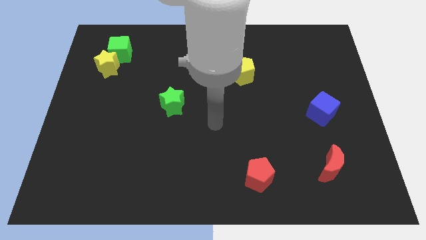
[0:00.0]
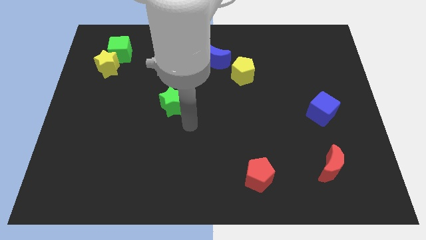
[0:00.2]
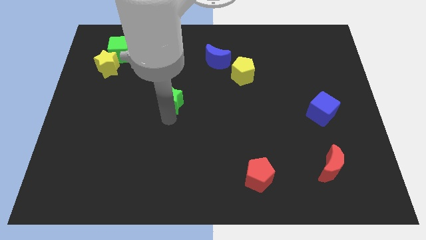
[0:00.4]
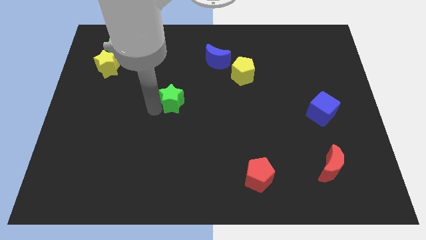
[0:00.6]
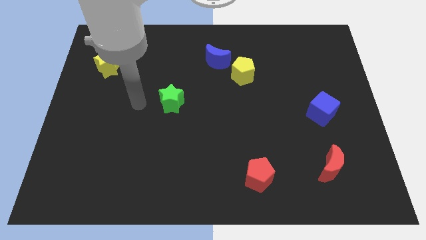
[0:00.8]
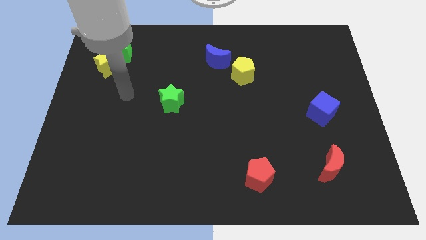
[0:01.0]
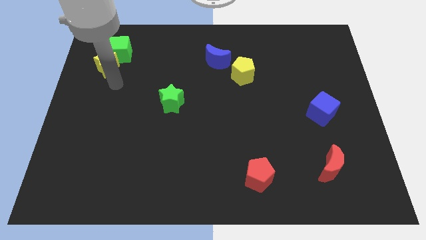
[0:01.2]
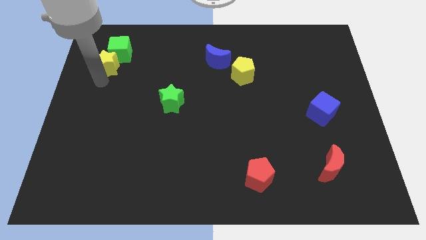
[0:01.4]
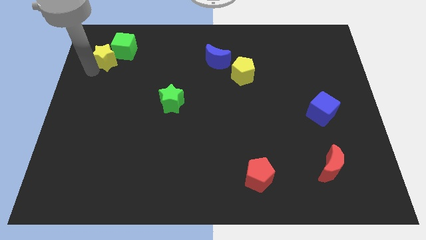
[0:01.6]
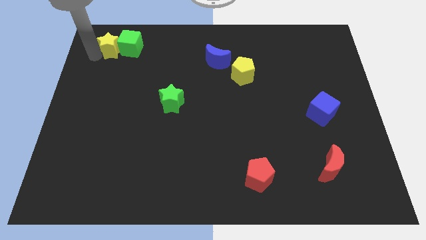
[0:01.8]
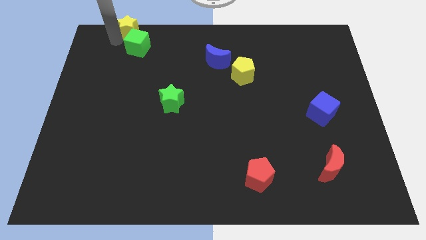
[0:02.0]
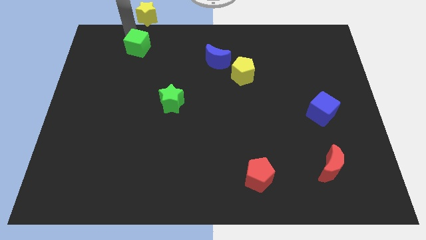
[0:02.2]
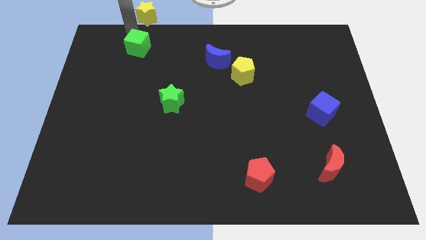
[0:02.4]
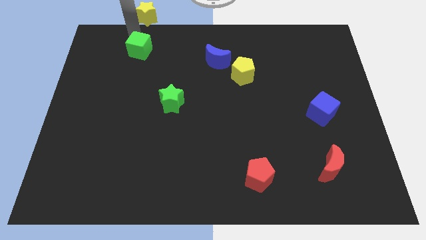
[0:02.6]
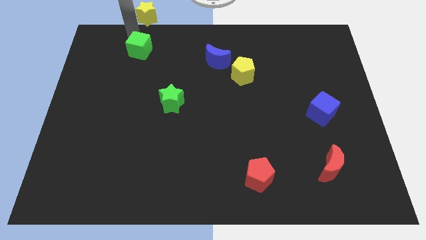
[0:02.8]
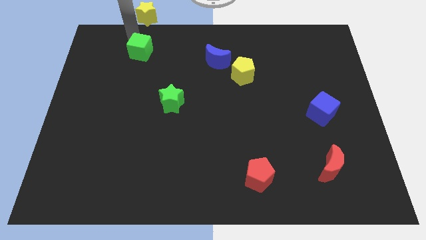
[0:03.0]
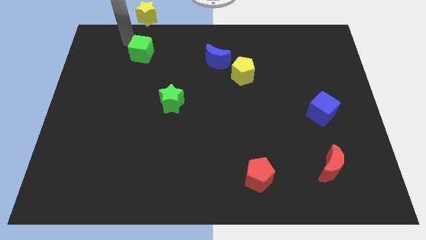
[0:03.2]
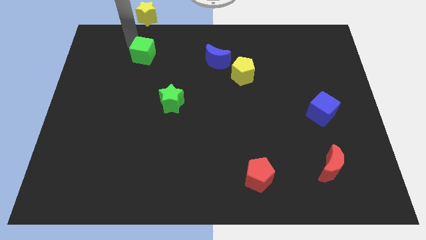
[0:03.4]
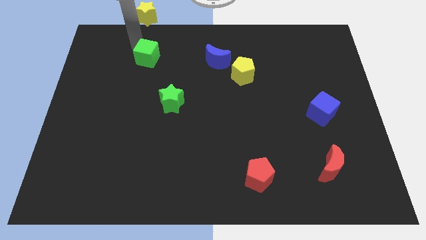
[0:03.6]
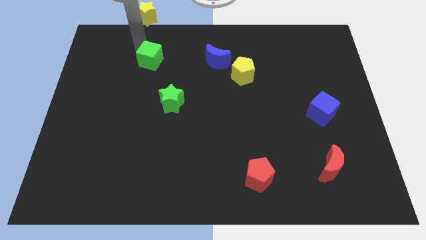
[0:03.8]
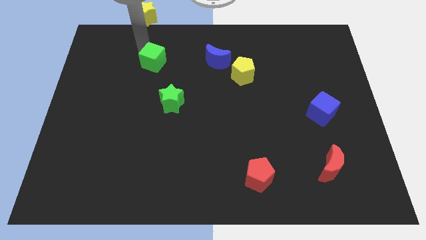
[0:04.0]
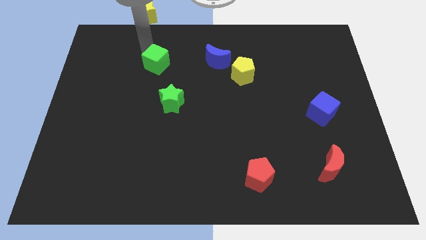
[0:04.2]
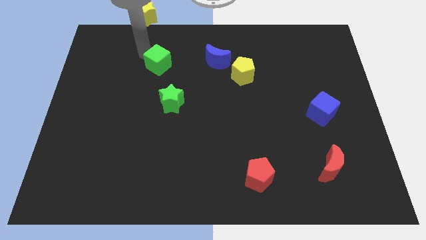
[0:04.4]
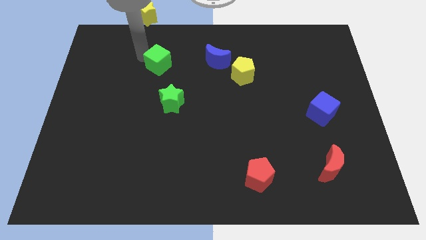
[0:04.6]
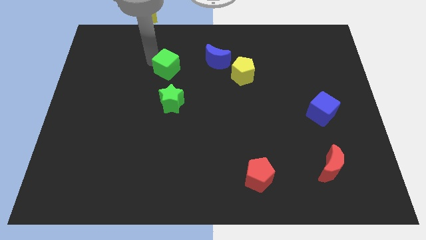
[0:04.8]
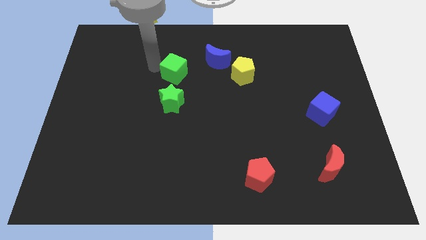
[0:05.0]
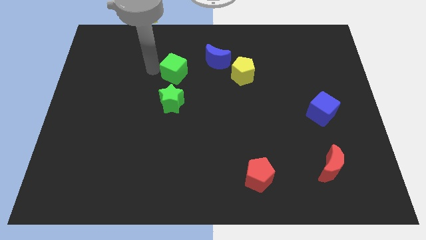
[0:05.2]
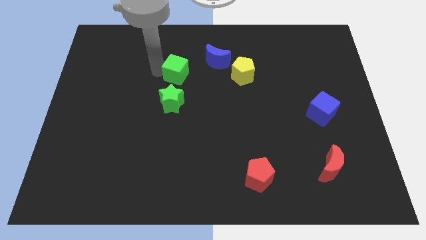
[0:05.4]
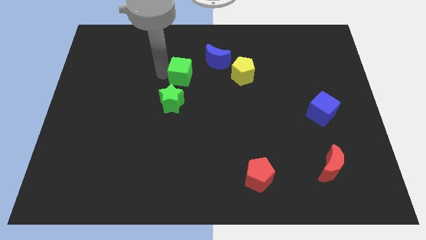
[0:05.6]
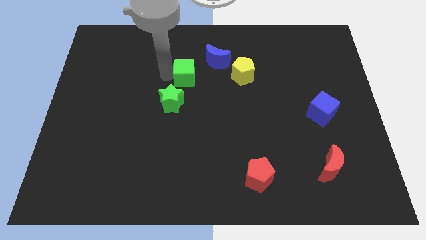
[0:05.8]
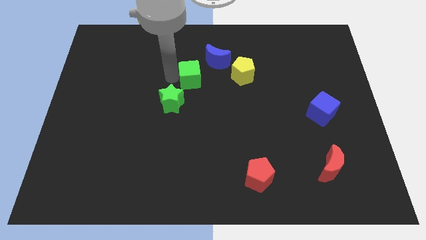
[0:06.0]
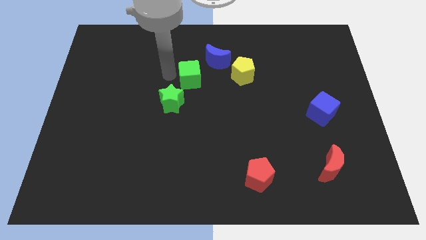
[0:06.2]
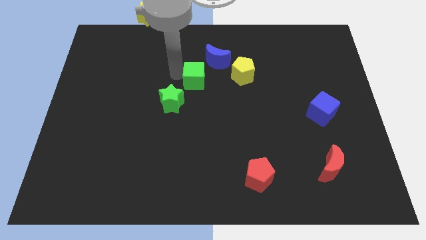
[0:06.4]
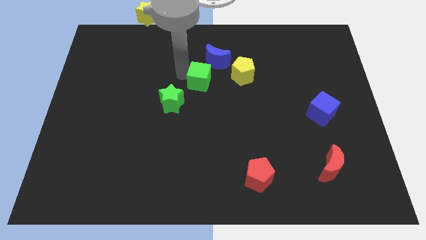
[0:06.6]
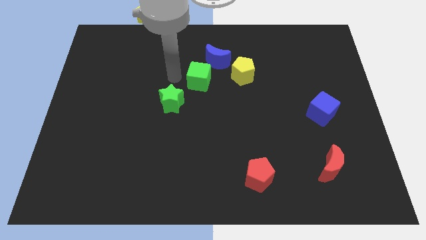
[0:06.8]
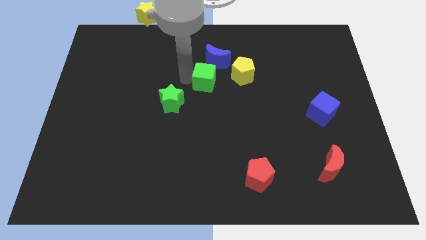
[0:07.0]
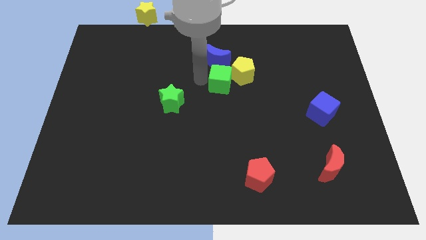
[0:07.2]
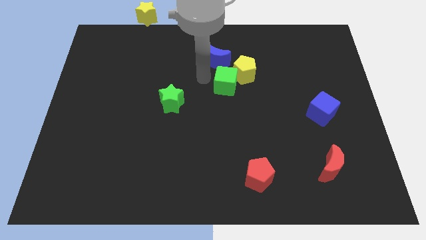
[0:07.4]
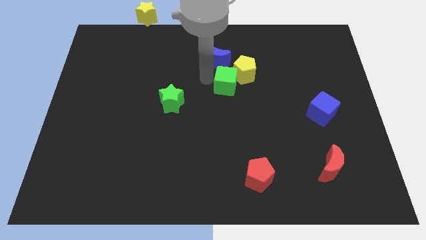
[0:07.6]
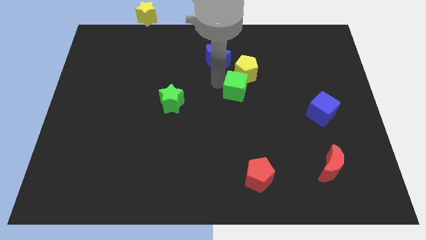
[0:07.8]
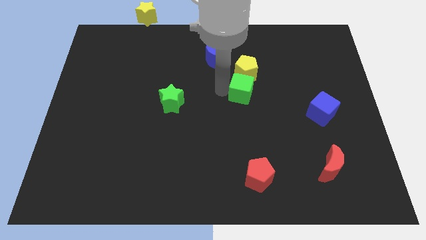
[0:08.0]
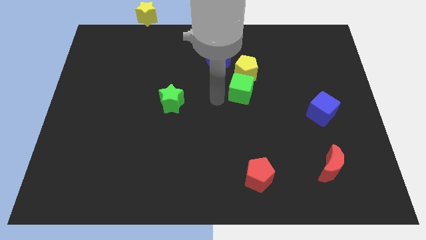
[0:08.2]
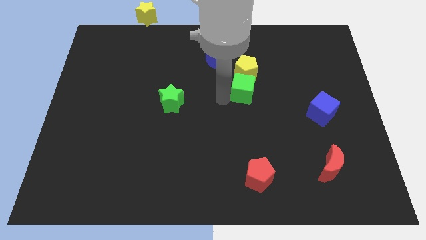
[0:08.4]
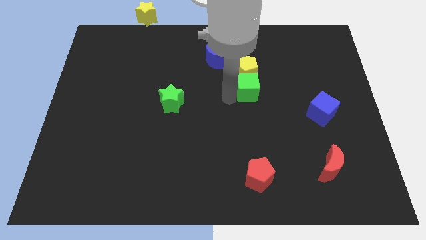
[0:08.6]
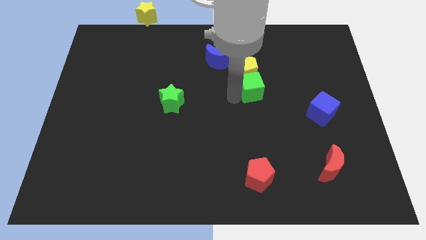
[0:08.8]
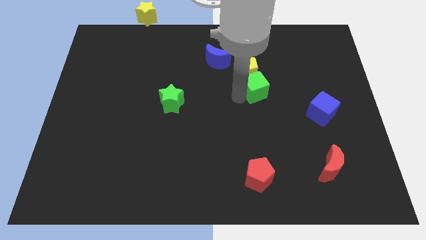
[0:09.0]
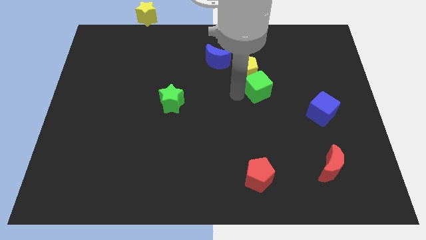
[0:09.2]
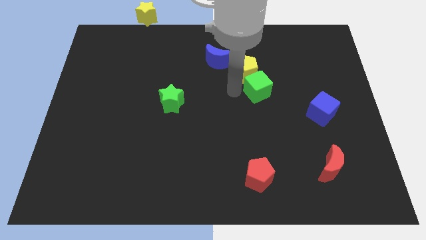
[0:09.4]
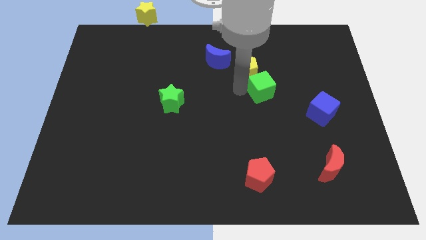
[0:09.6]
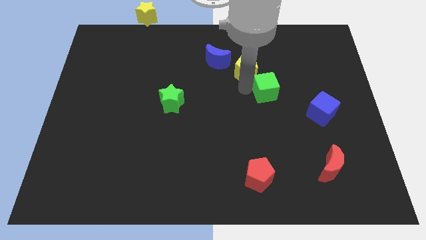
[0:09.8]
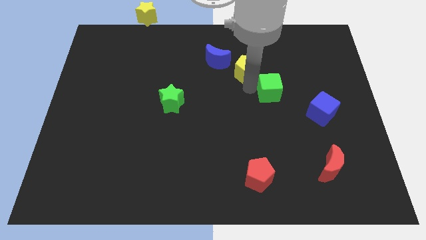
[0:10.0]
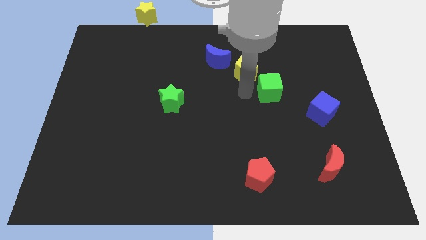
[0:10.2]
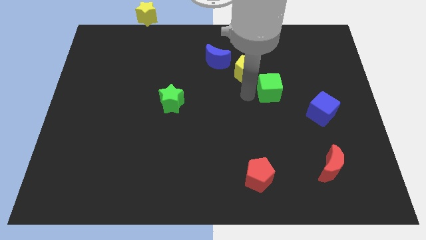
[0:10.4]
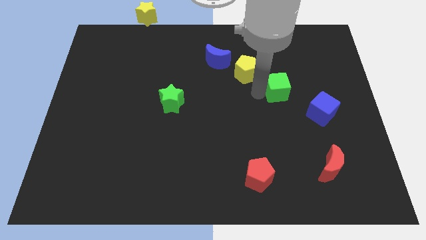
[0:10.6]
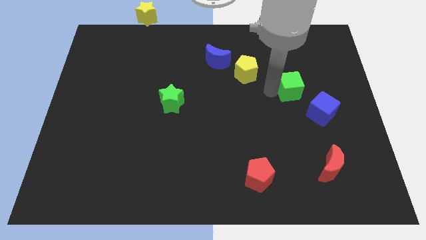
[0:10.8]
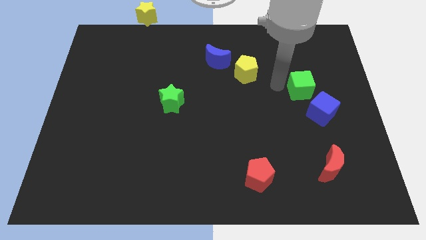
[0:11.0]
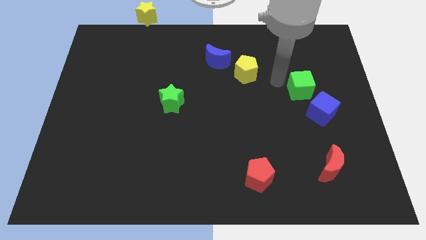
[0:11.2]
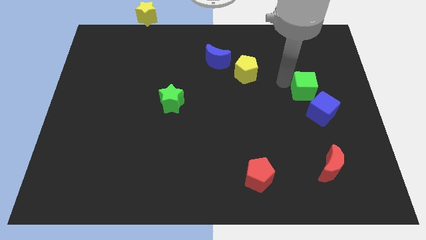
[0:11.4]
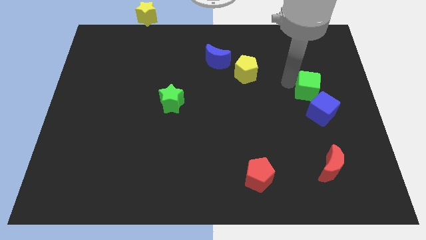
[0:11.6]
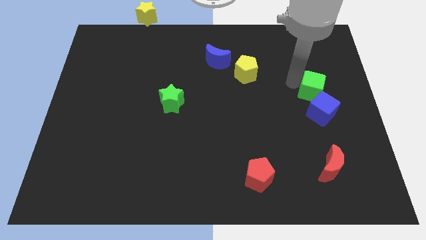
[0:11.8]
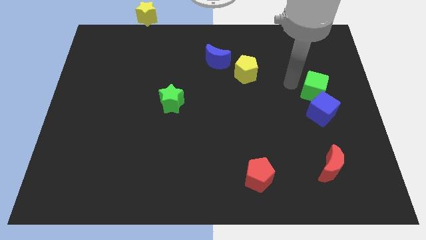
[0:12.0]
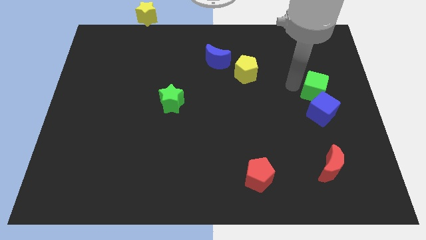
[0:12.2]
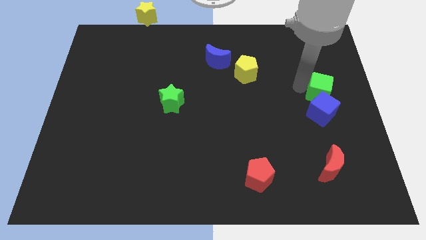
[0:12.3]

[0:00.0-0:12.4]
push the green cube to the center right

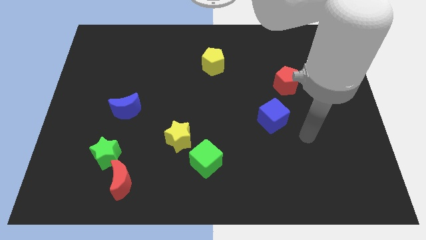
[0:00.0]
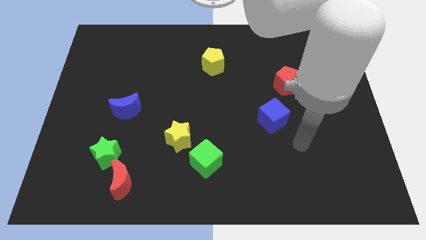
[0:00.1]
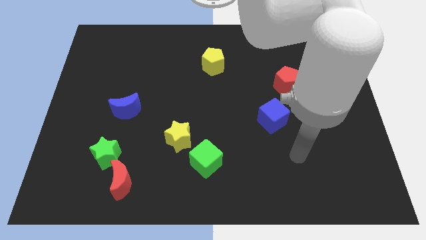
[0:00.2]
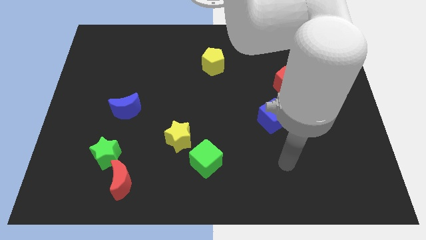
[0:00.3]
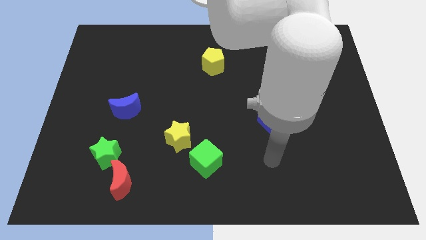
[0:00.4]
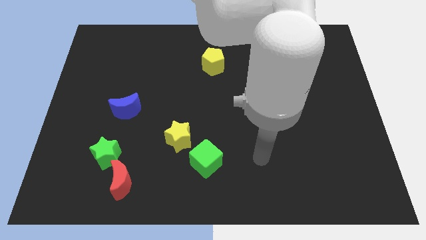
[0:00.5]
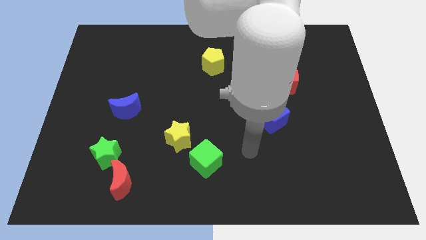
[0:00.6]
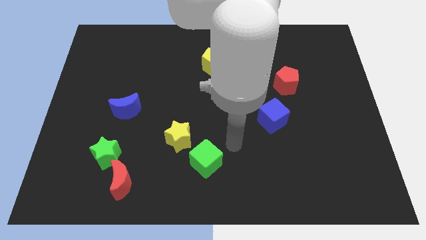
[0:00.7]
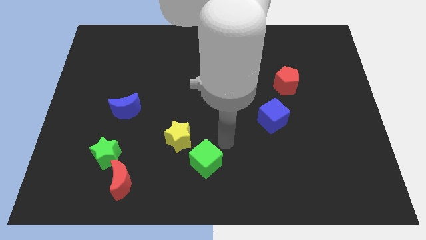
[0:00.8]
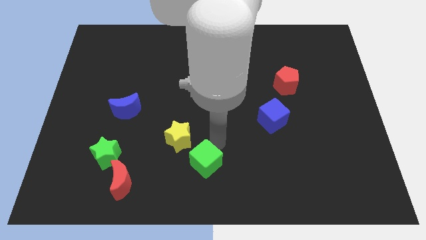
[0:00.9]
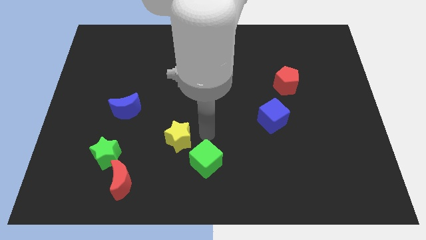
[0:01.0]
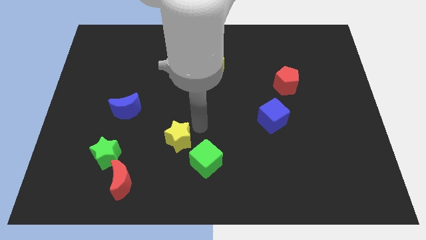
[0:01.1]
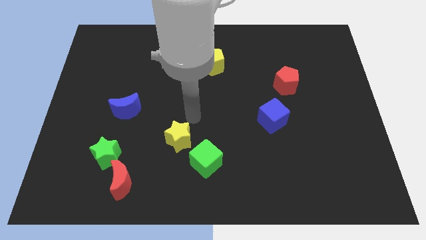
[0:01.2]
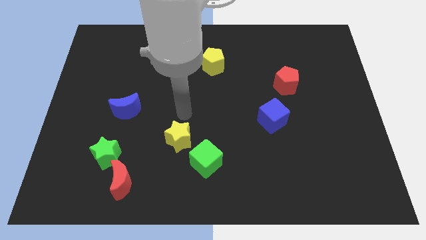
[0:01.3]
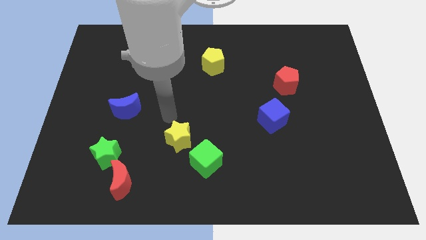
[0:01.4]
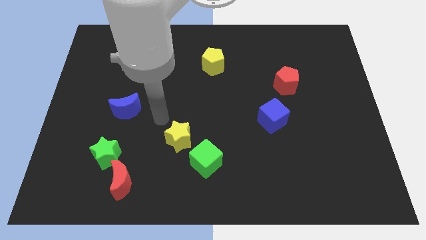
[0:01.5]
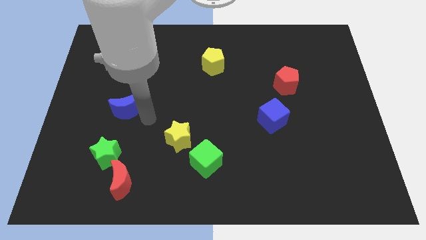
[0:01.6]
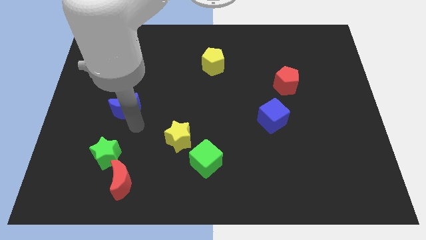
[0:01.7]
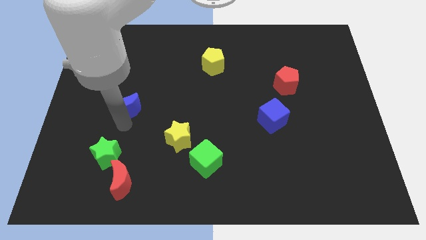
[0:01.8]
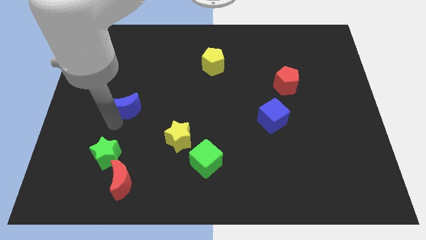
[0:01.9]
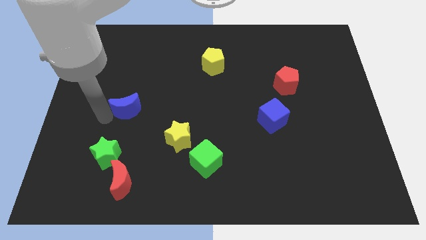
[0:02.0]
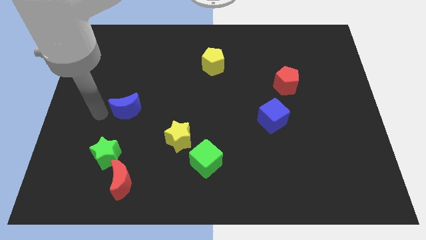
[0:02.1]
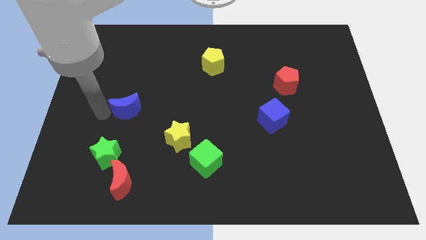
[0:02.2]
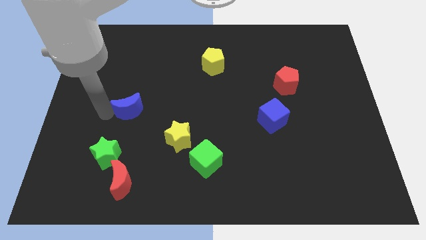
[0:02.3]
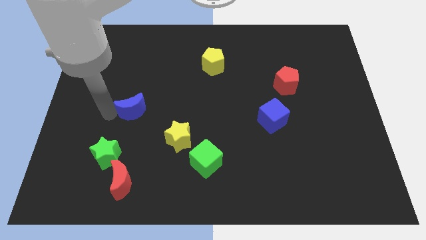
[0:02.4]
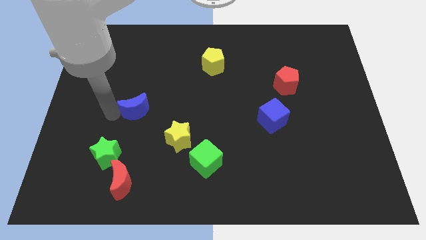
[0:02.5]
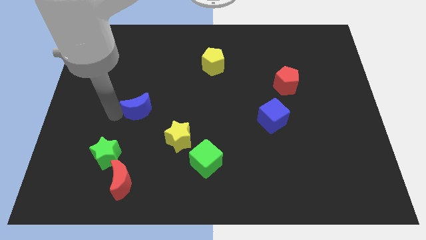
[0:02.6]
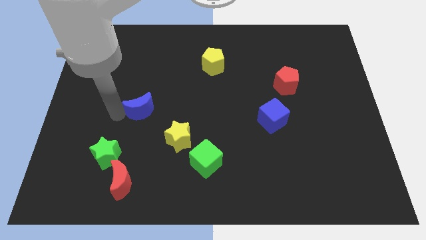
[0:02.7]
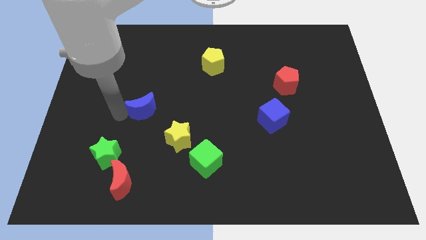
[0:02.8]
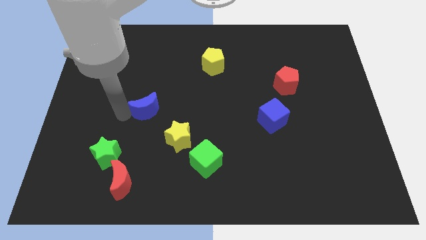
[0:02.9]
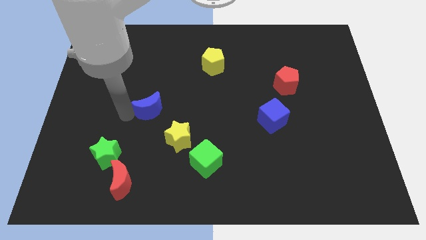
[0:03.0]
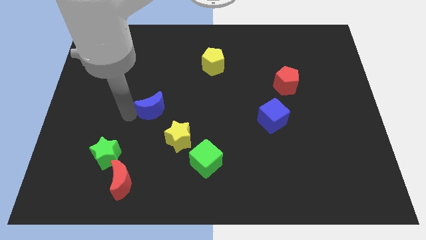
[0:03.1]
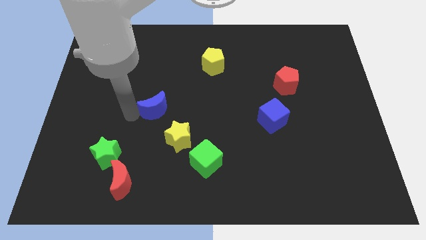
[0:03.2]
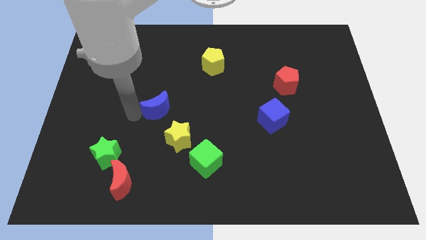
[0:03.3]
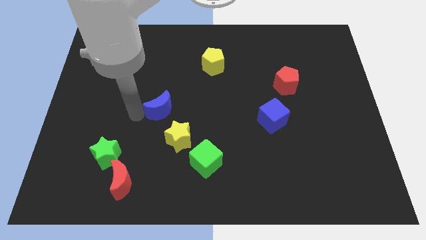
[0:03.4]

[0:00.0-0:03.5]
move the blue moon to the middle of the board
